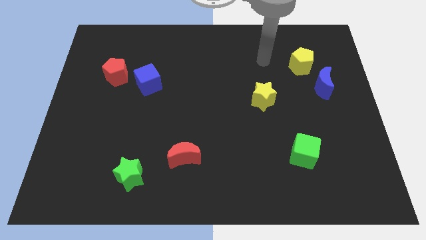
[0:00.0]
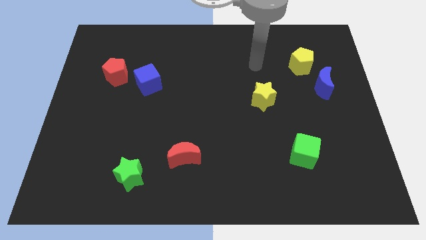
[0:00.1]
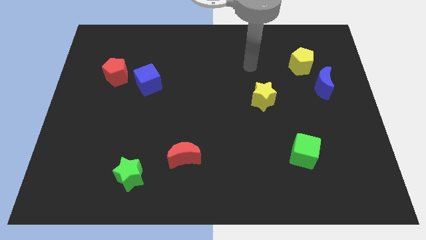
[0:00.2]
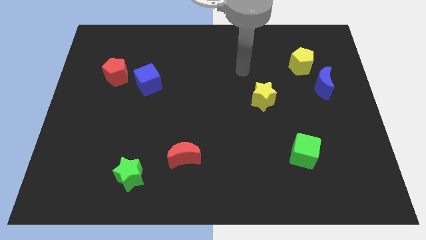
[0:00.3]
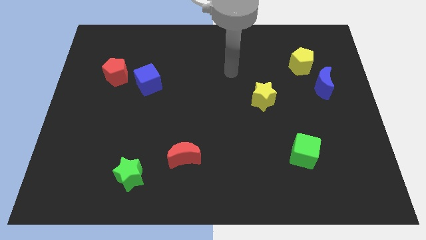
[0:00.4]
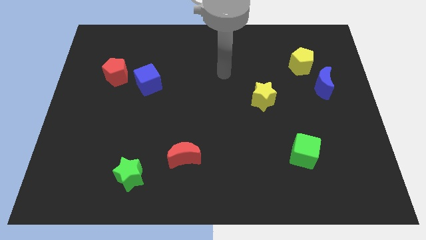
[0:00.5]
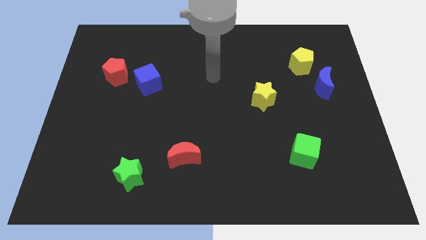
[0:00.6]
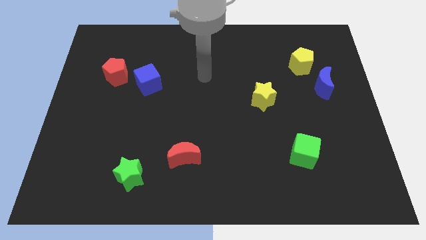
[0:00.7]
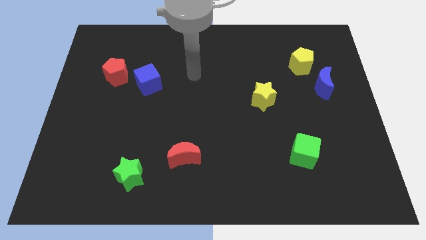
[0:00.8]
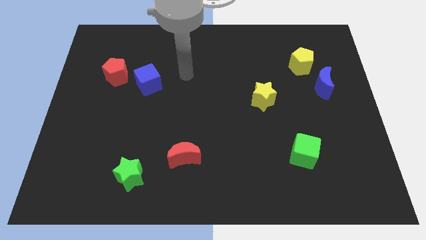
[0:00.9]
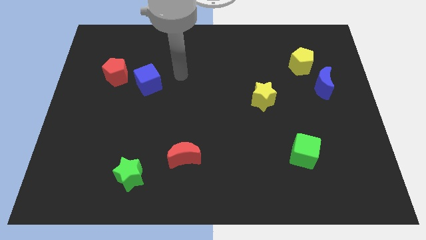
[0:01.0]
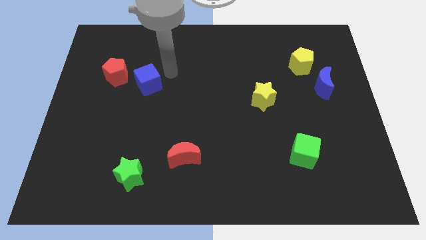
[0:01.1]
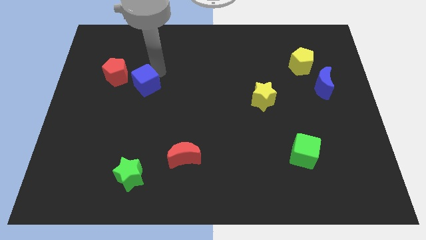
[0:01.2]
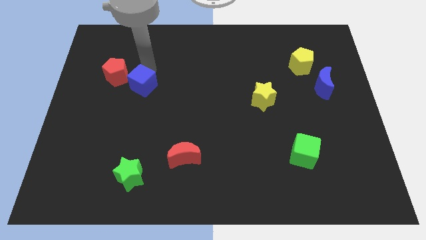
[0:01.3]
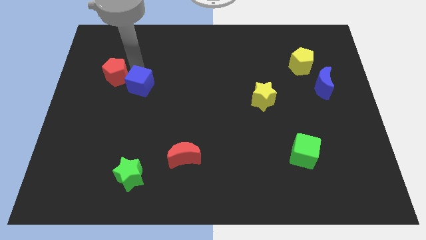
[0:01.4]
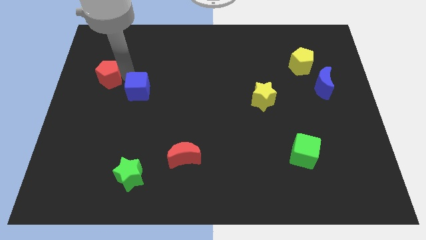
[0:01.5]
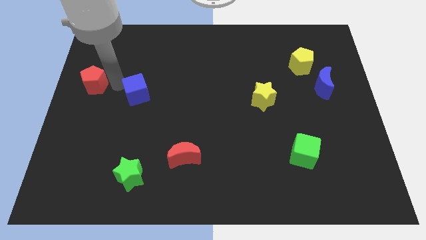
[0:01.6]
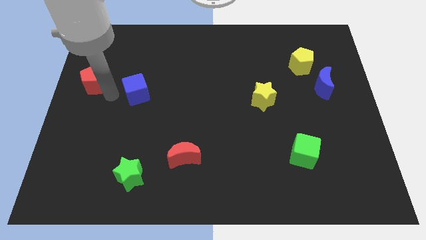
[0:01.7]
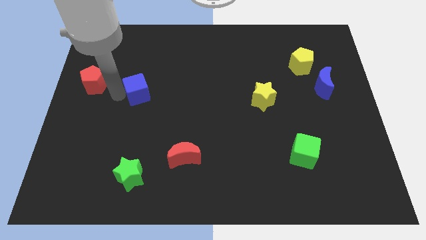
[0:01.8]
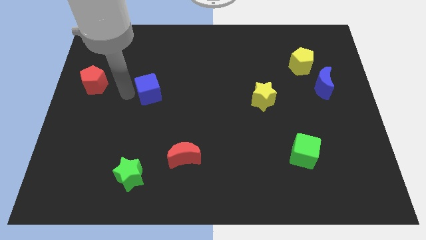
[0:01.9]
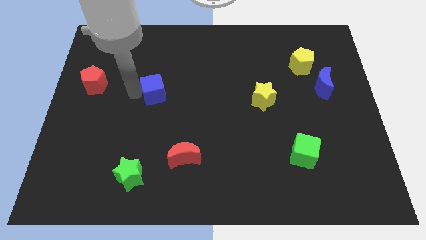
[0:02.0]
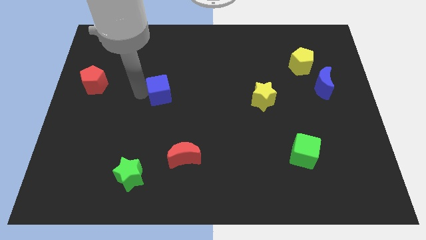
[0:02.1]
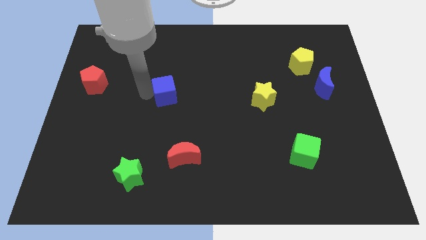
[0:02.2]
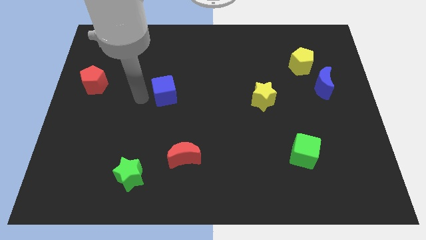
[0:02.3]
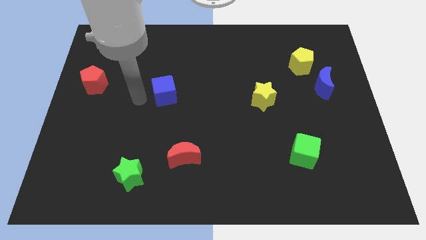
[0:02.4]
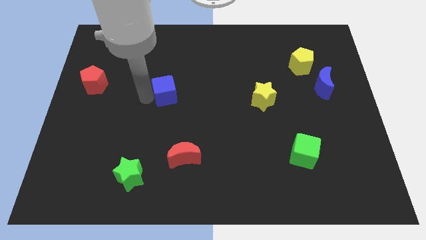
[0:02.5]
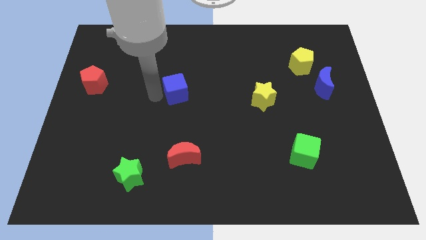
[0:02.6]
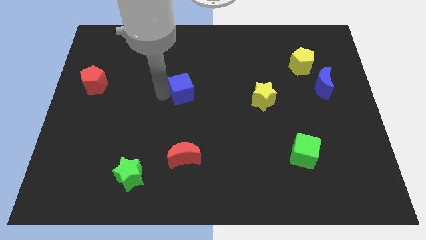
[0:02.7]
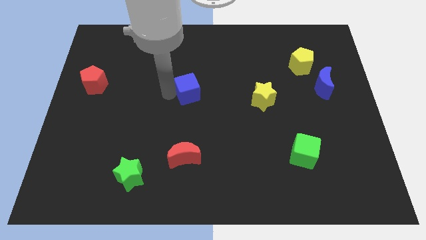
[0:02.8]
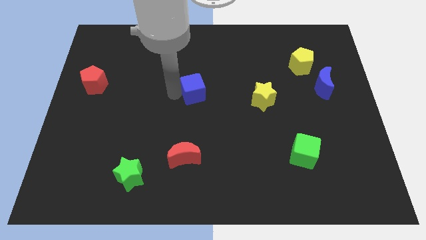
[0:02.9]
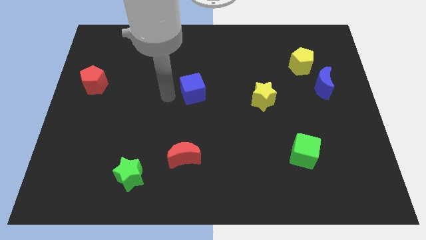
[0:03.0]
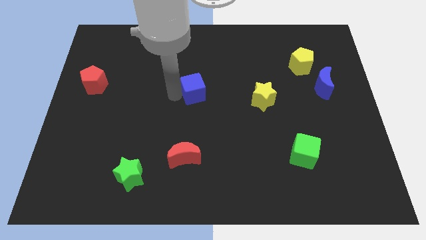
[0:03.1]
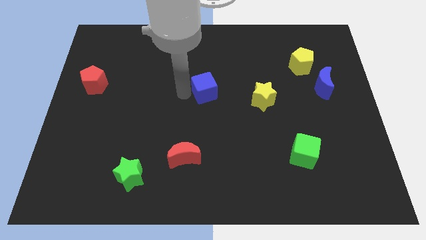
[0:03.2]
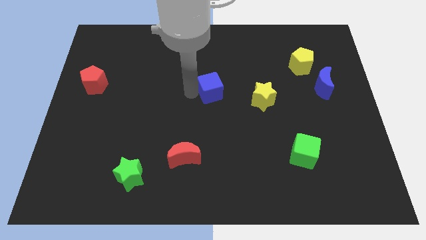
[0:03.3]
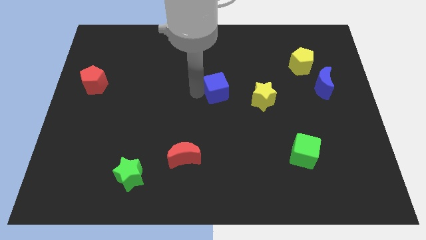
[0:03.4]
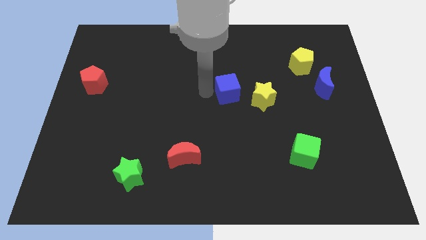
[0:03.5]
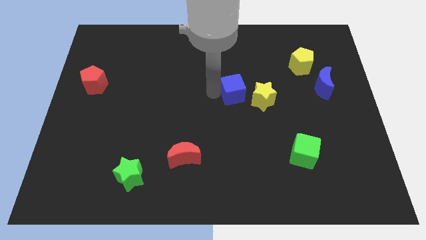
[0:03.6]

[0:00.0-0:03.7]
move the blue cube to the right

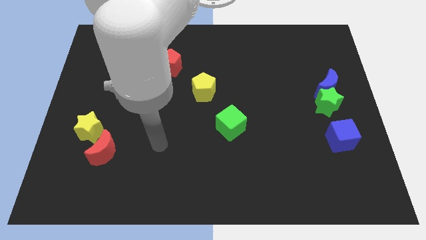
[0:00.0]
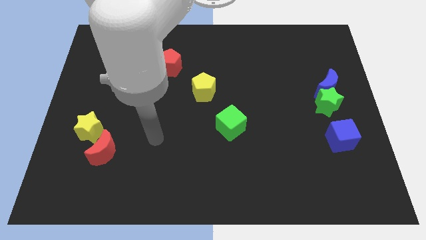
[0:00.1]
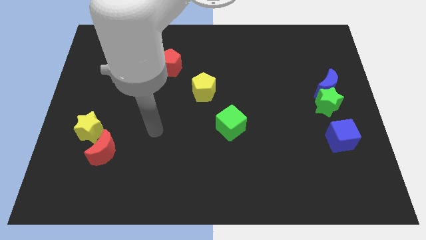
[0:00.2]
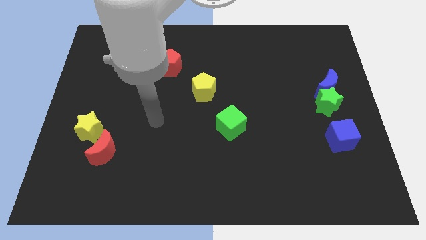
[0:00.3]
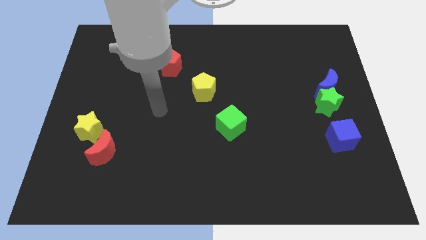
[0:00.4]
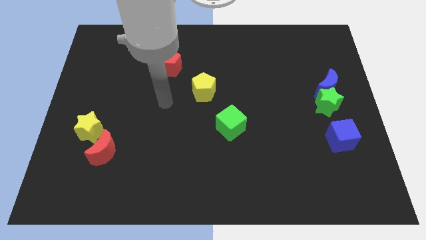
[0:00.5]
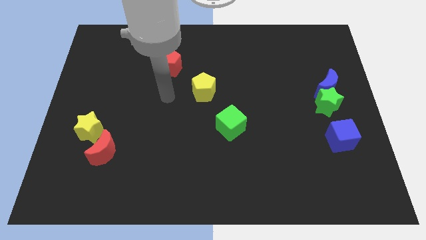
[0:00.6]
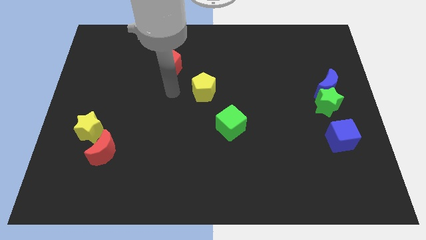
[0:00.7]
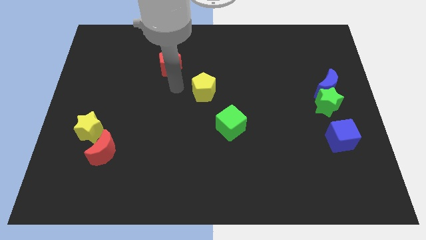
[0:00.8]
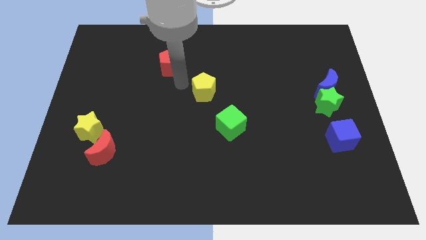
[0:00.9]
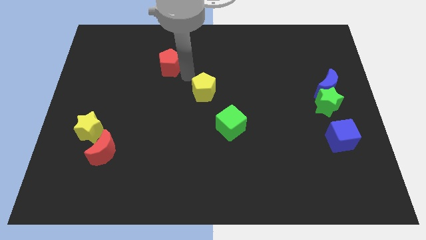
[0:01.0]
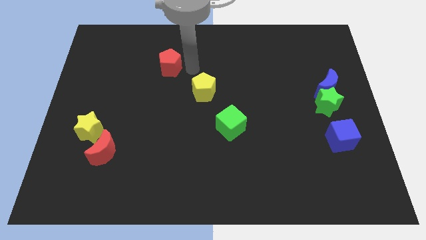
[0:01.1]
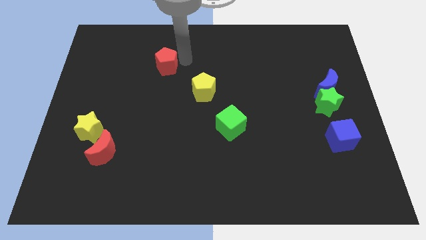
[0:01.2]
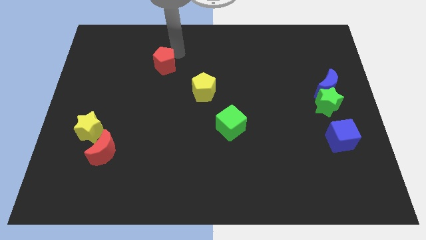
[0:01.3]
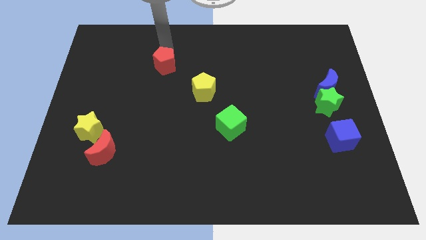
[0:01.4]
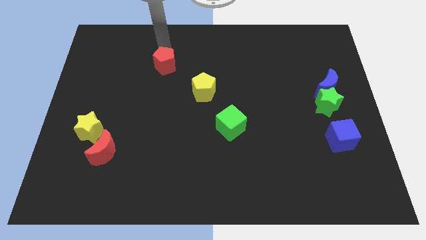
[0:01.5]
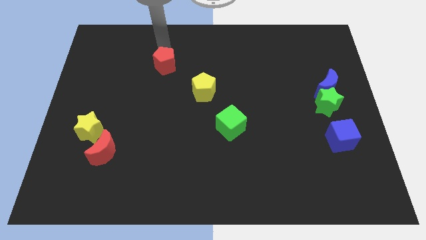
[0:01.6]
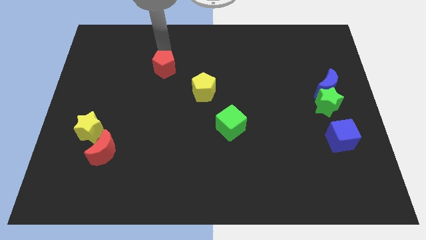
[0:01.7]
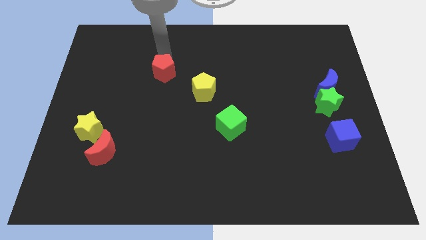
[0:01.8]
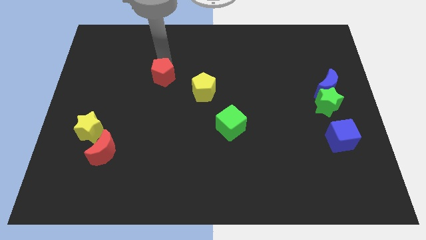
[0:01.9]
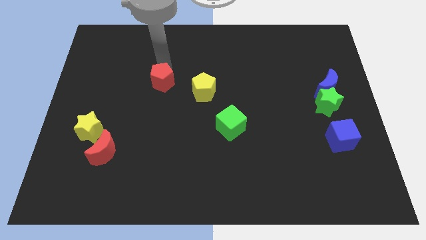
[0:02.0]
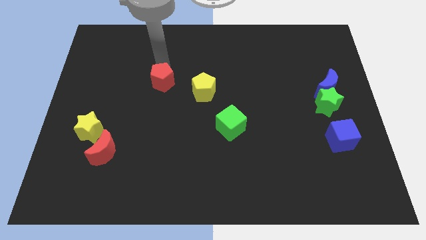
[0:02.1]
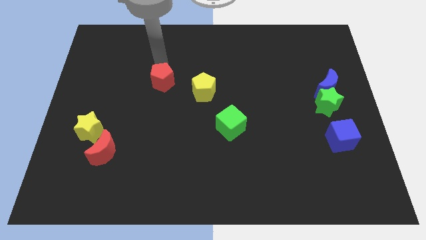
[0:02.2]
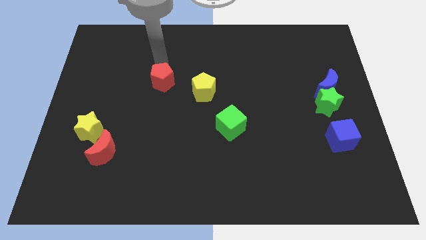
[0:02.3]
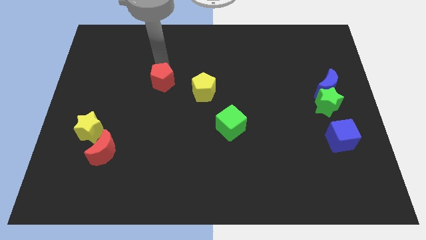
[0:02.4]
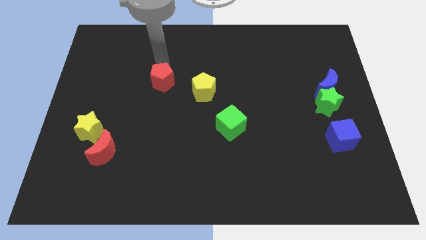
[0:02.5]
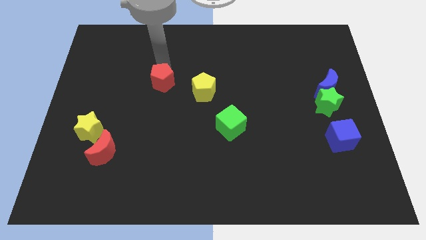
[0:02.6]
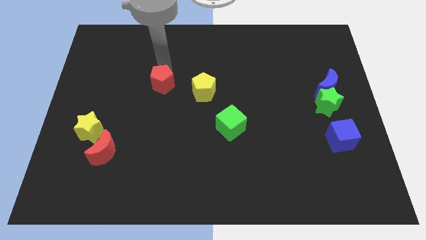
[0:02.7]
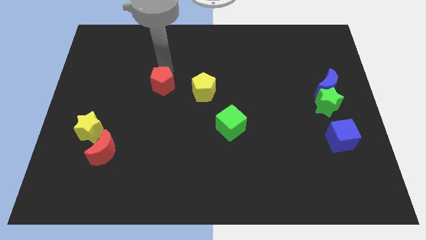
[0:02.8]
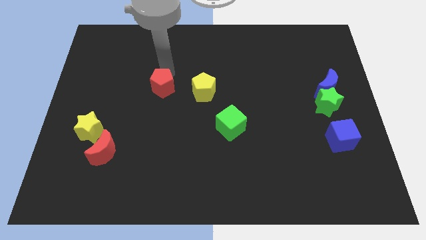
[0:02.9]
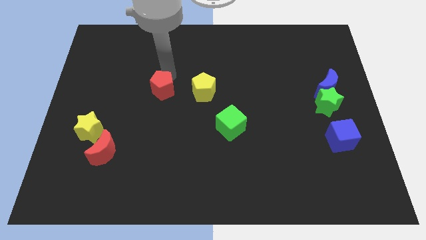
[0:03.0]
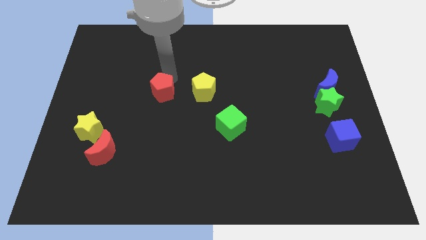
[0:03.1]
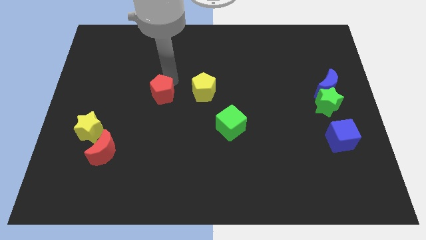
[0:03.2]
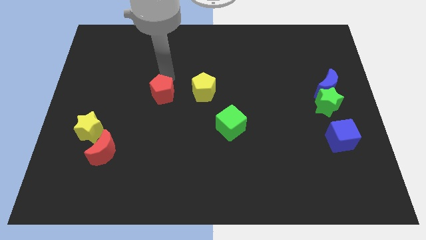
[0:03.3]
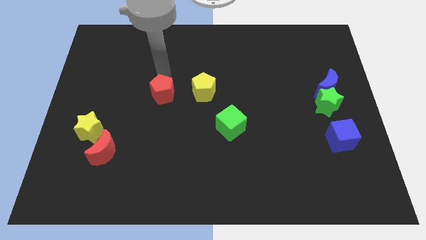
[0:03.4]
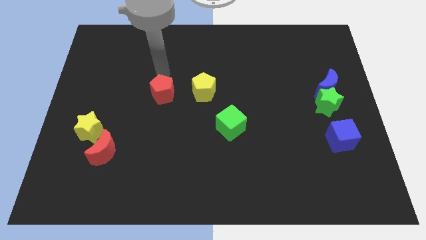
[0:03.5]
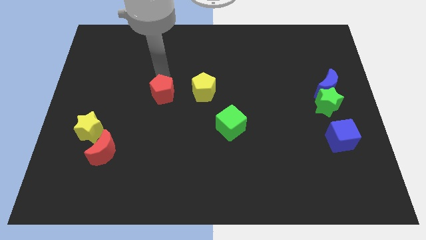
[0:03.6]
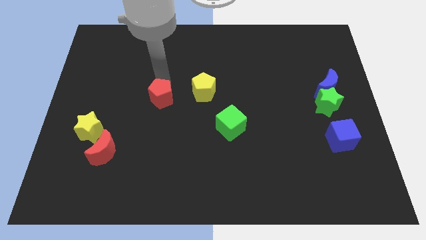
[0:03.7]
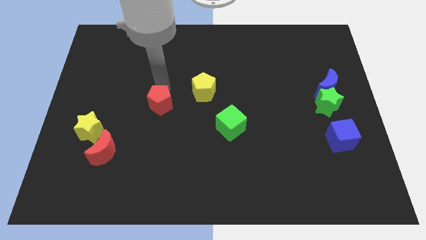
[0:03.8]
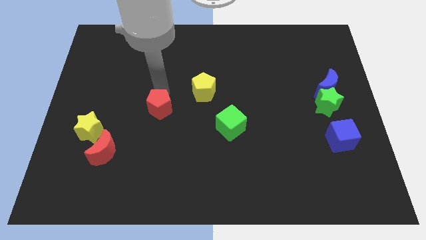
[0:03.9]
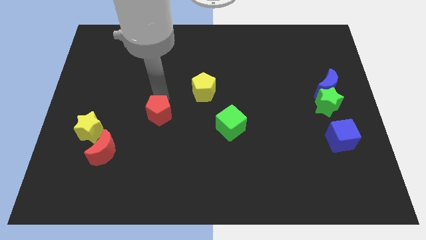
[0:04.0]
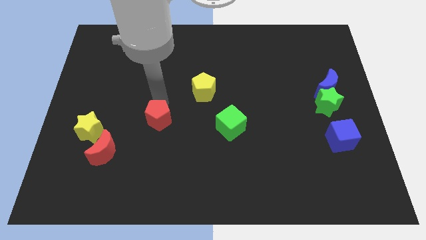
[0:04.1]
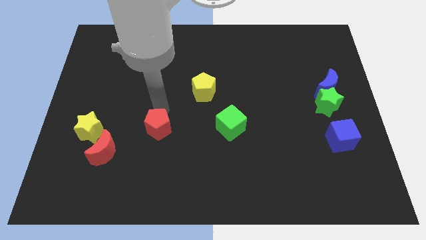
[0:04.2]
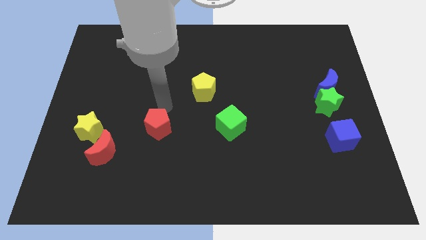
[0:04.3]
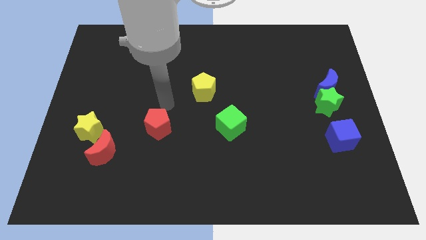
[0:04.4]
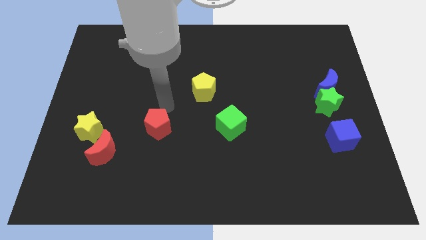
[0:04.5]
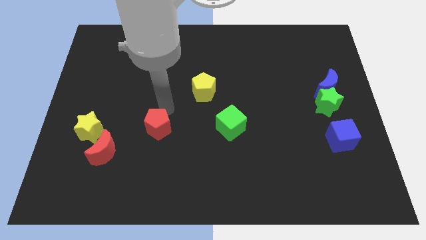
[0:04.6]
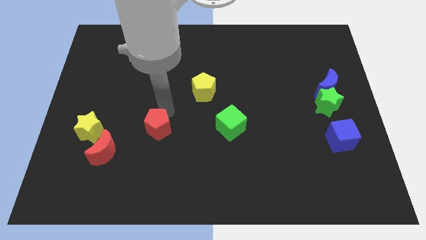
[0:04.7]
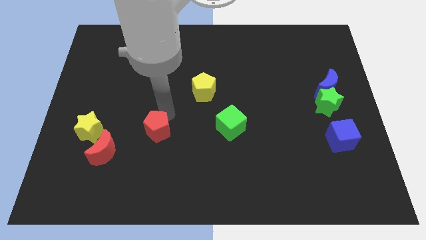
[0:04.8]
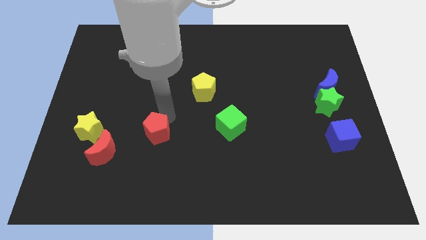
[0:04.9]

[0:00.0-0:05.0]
move the red pentagon downwards
